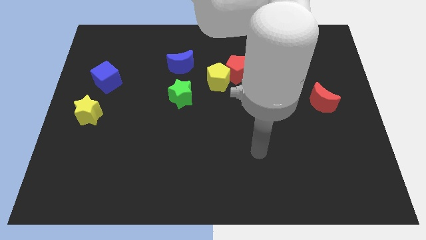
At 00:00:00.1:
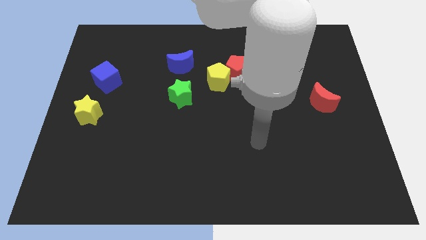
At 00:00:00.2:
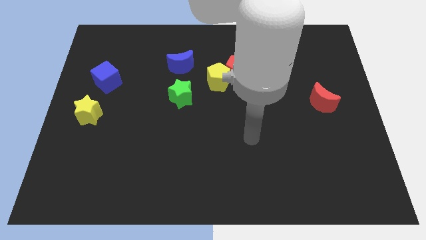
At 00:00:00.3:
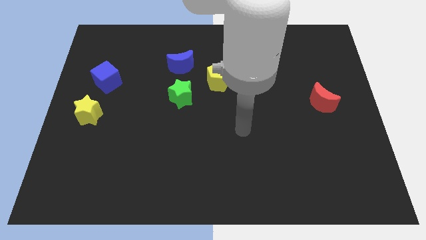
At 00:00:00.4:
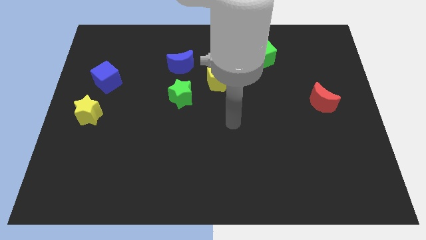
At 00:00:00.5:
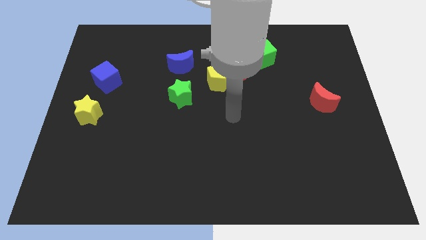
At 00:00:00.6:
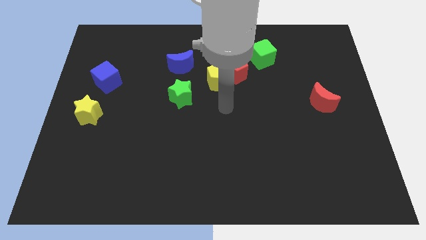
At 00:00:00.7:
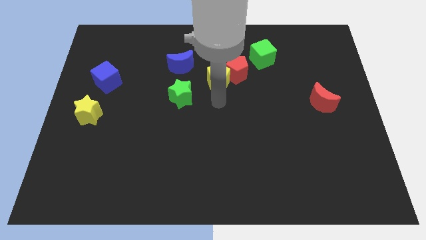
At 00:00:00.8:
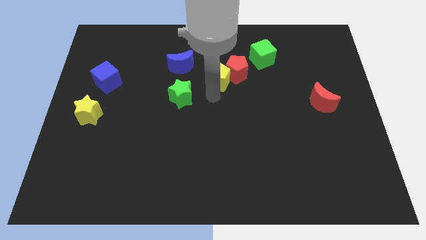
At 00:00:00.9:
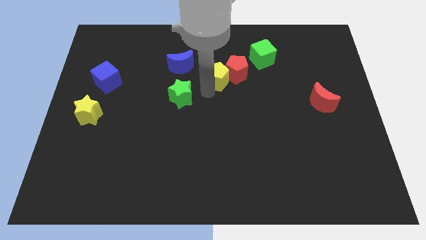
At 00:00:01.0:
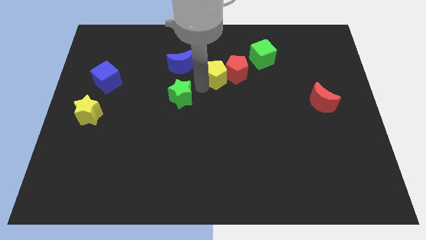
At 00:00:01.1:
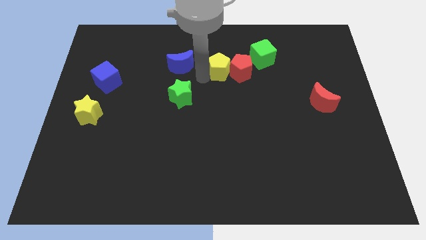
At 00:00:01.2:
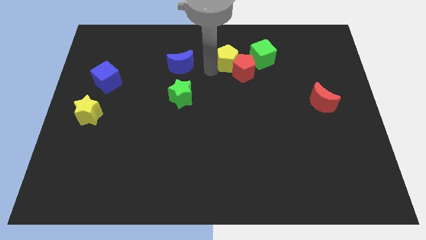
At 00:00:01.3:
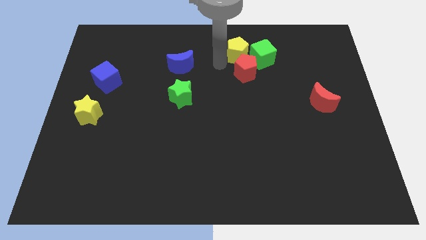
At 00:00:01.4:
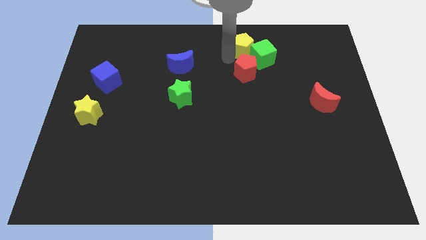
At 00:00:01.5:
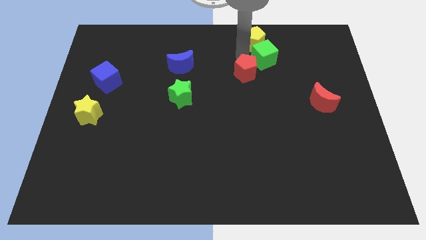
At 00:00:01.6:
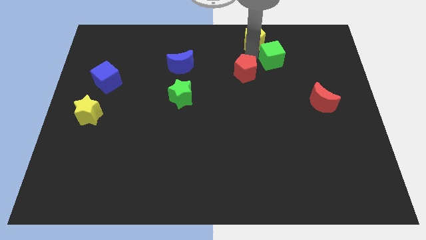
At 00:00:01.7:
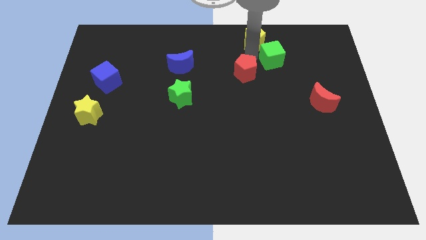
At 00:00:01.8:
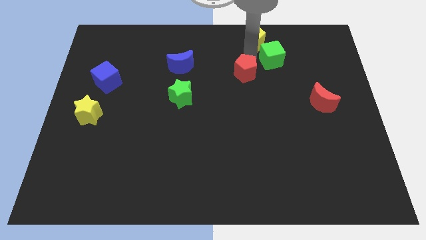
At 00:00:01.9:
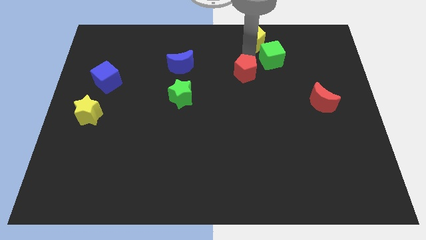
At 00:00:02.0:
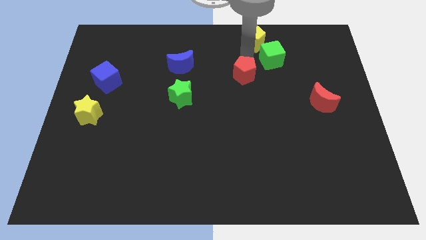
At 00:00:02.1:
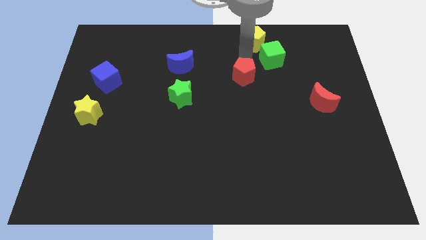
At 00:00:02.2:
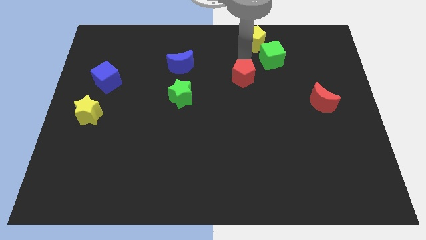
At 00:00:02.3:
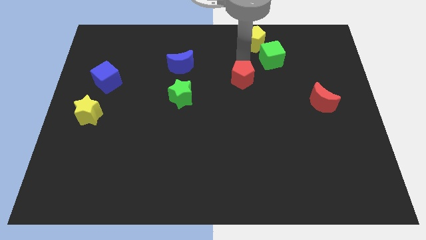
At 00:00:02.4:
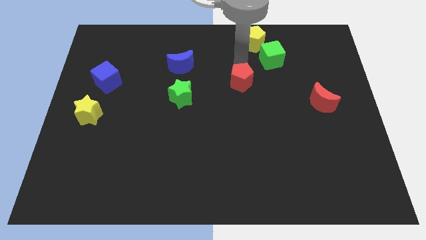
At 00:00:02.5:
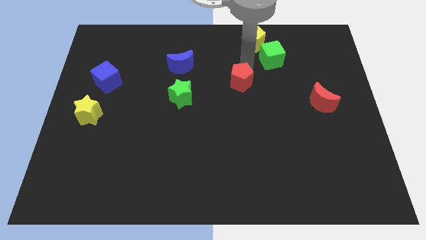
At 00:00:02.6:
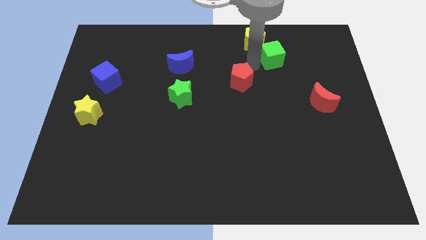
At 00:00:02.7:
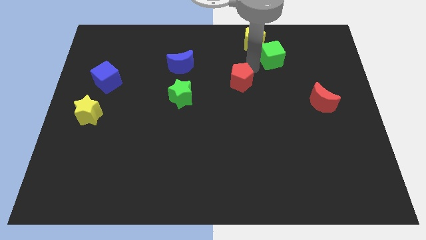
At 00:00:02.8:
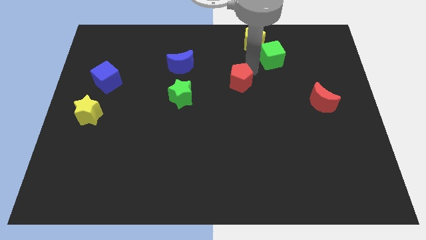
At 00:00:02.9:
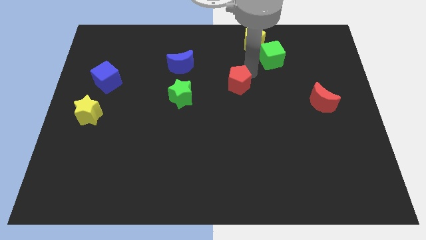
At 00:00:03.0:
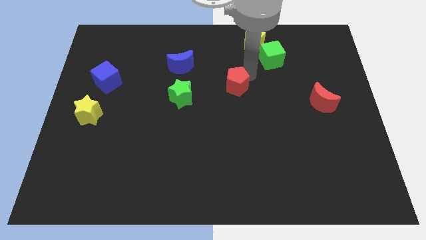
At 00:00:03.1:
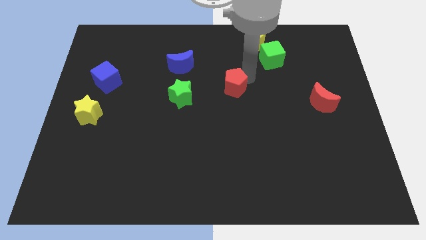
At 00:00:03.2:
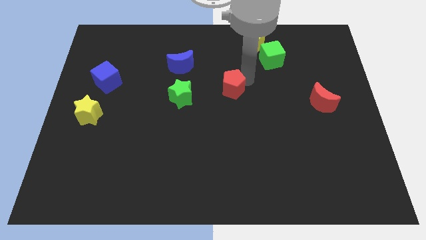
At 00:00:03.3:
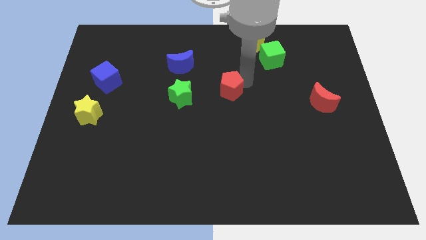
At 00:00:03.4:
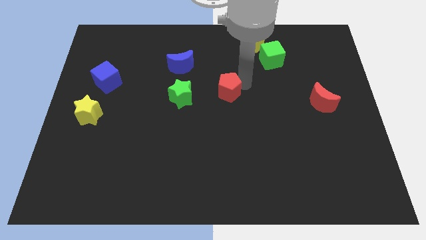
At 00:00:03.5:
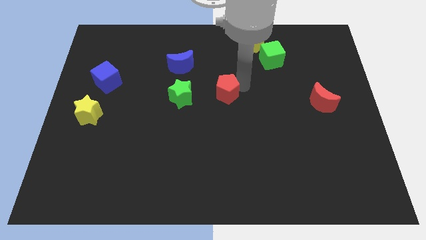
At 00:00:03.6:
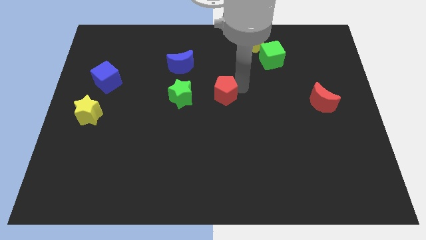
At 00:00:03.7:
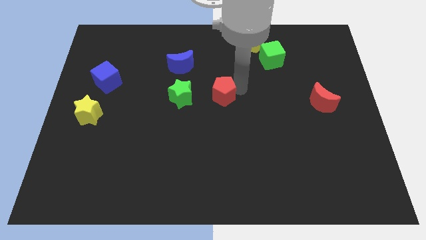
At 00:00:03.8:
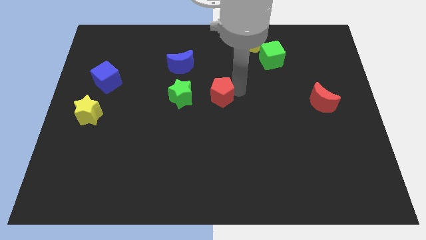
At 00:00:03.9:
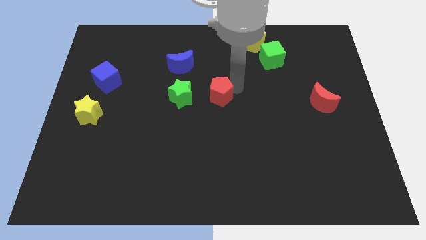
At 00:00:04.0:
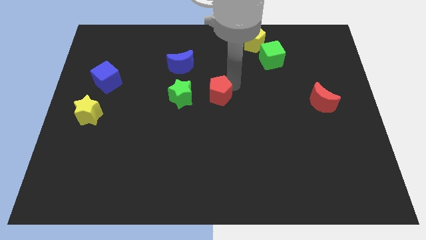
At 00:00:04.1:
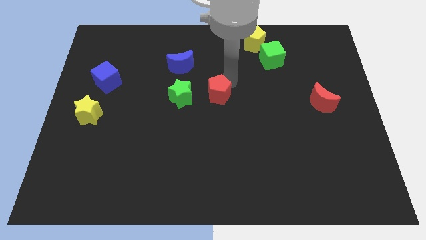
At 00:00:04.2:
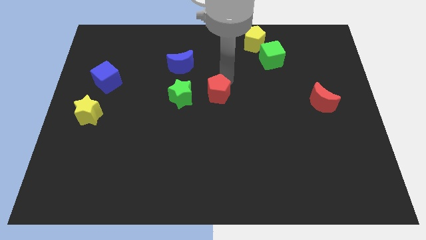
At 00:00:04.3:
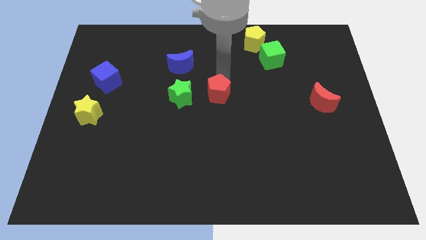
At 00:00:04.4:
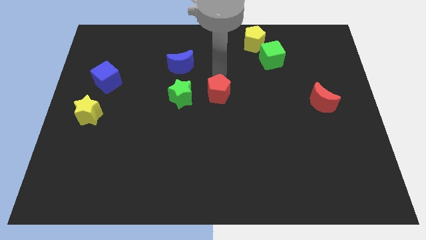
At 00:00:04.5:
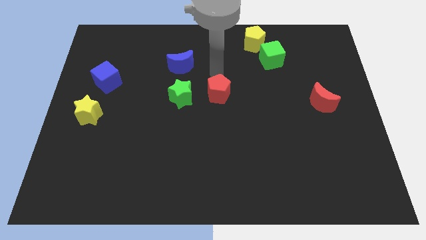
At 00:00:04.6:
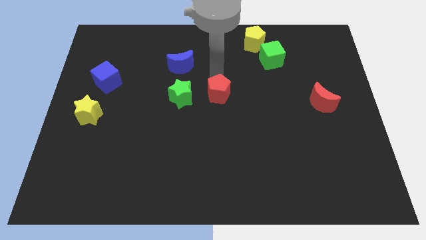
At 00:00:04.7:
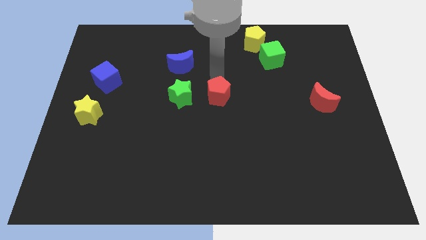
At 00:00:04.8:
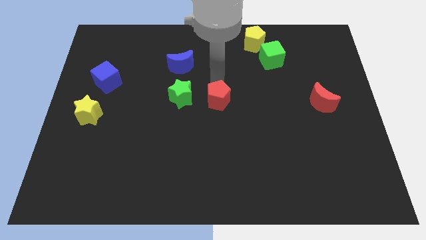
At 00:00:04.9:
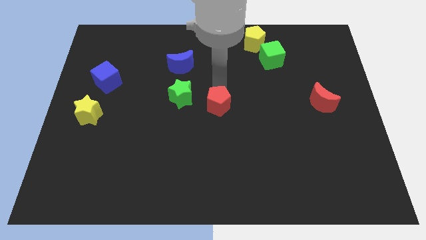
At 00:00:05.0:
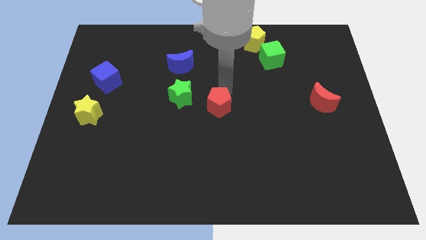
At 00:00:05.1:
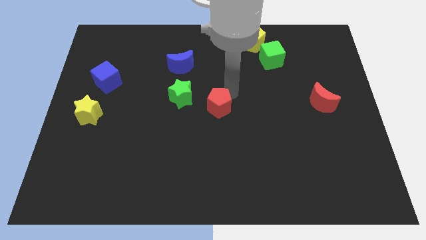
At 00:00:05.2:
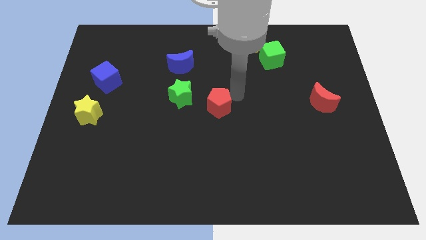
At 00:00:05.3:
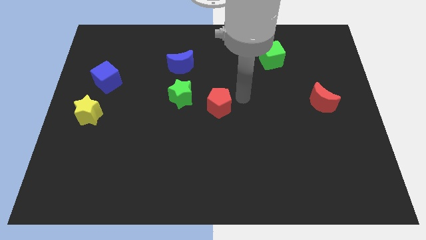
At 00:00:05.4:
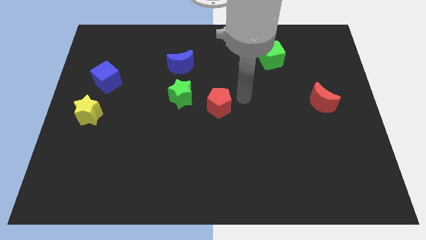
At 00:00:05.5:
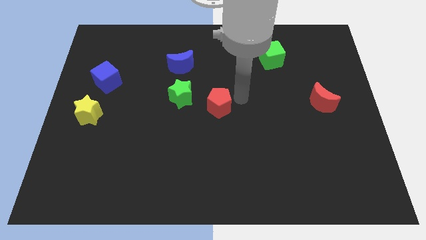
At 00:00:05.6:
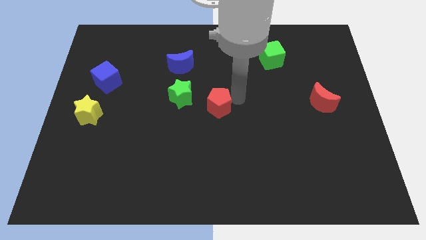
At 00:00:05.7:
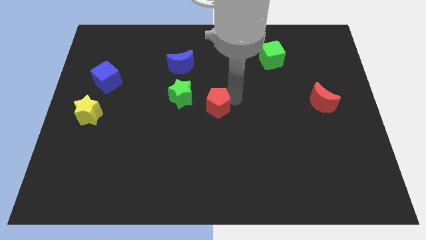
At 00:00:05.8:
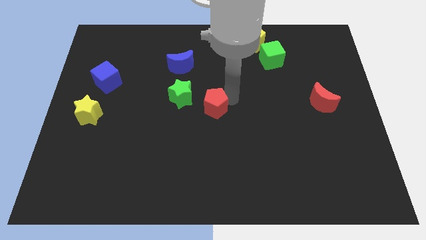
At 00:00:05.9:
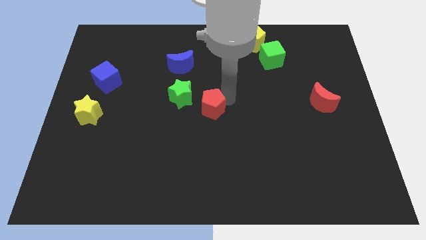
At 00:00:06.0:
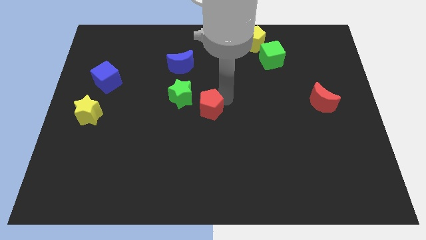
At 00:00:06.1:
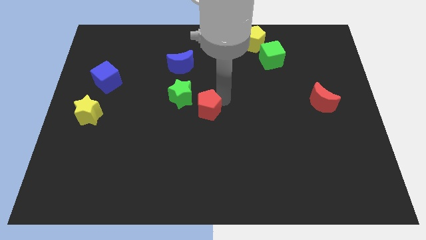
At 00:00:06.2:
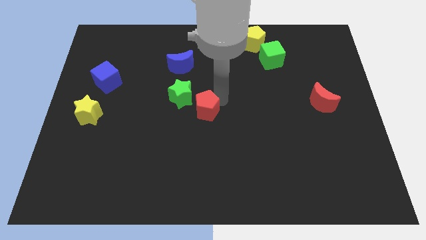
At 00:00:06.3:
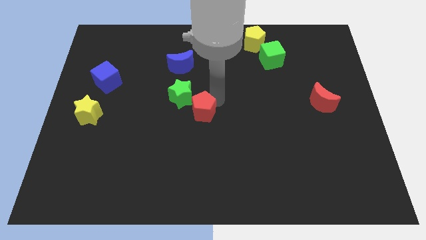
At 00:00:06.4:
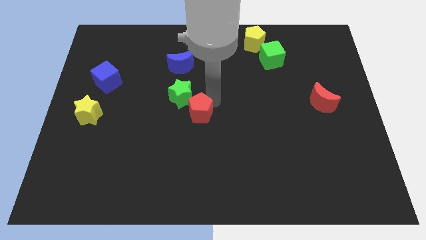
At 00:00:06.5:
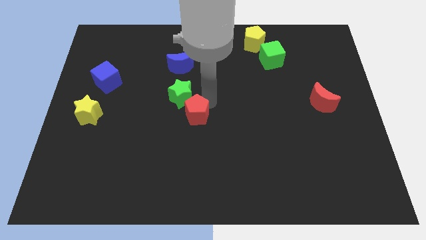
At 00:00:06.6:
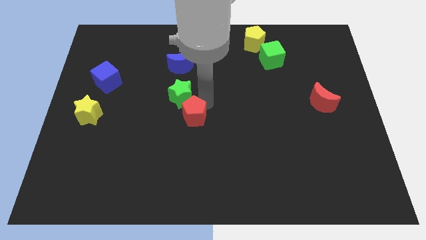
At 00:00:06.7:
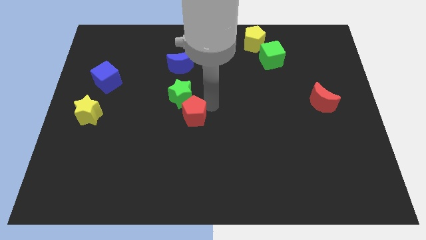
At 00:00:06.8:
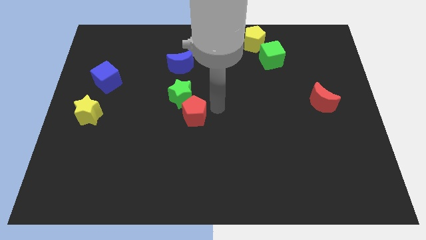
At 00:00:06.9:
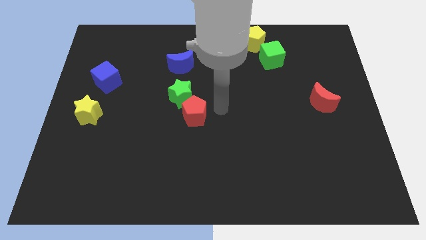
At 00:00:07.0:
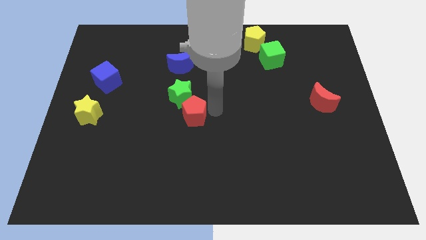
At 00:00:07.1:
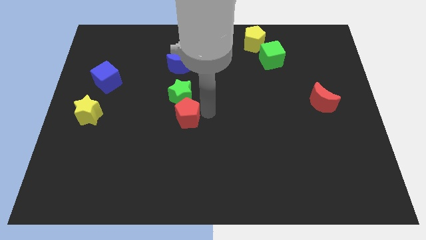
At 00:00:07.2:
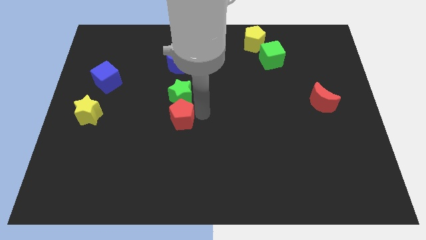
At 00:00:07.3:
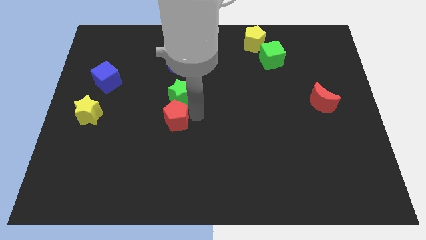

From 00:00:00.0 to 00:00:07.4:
slide the red pentagon downwards and left

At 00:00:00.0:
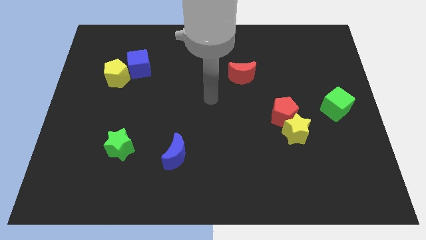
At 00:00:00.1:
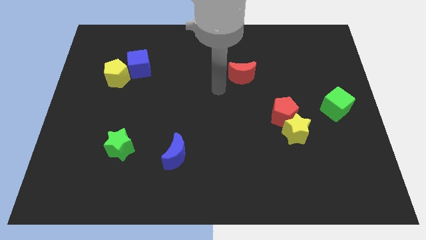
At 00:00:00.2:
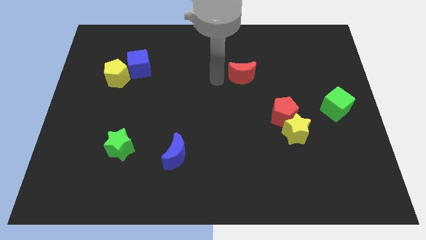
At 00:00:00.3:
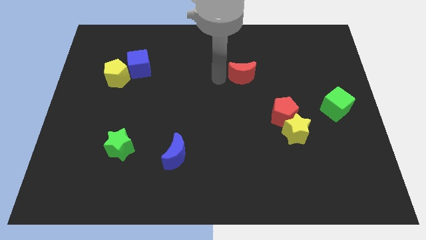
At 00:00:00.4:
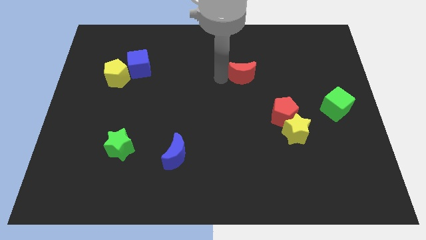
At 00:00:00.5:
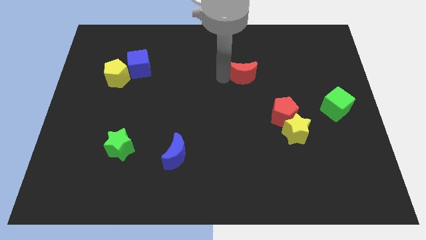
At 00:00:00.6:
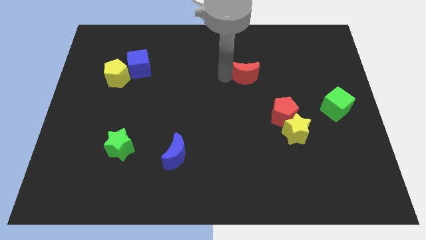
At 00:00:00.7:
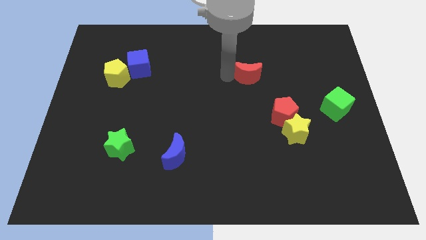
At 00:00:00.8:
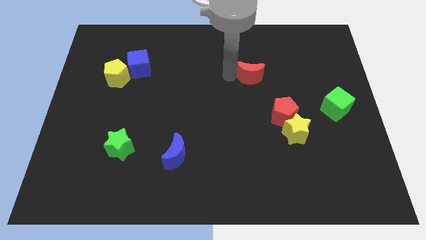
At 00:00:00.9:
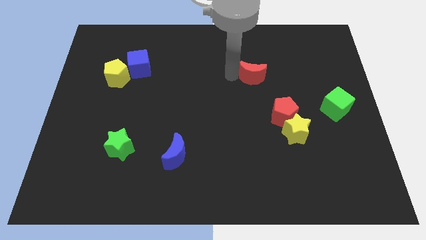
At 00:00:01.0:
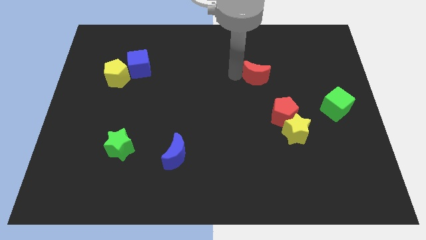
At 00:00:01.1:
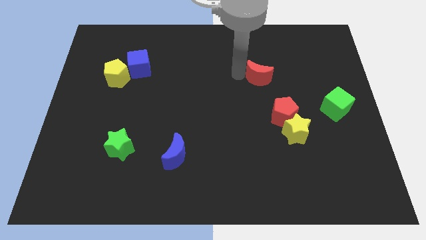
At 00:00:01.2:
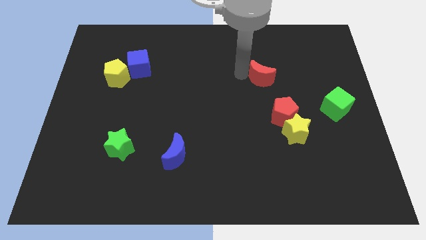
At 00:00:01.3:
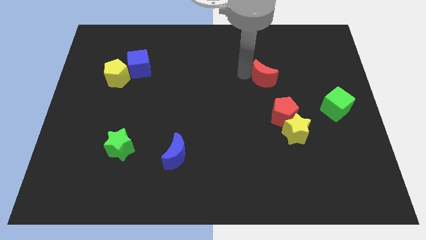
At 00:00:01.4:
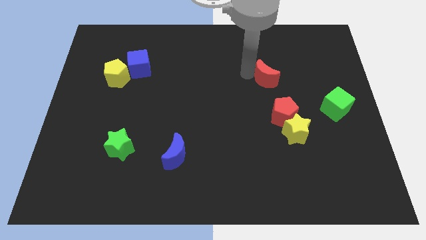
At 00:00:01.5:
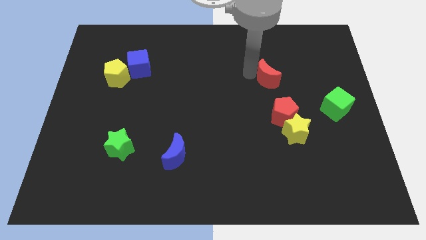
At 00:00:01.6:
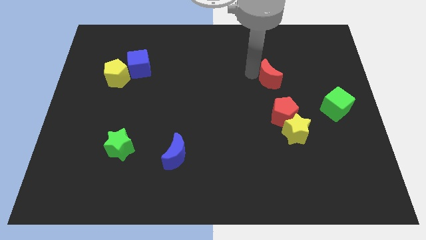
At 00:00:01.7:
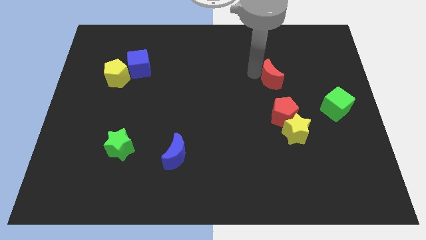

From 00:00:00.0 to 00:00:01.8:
push the red moon right slightly
